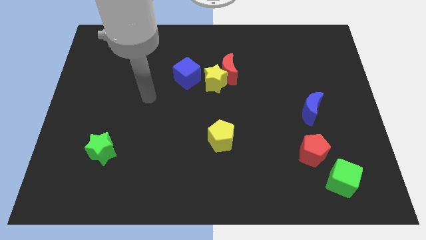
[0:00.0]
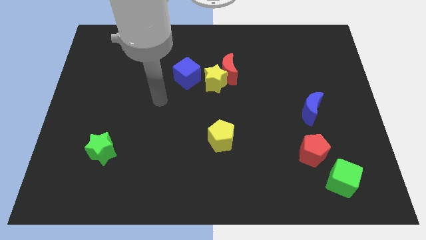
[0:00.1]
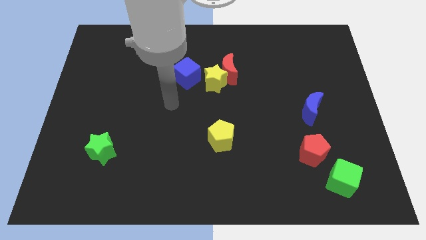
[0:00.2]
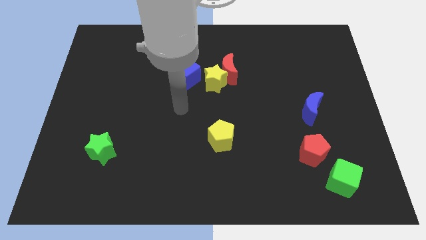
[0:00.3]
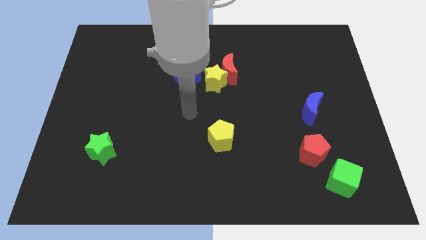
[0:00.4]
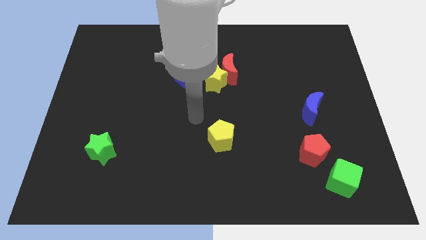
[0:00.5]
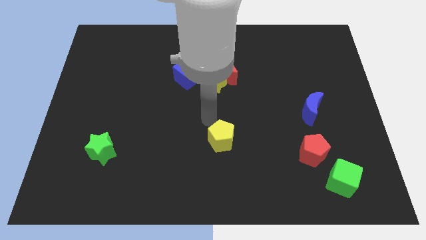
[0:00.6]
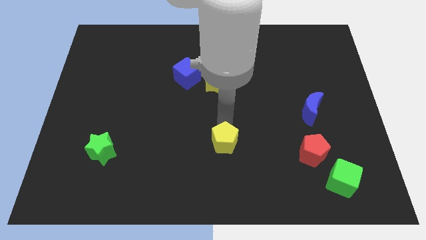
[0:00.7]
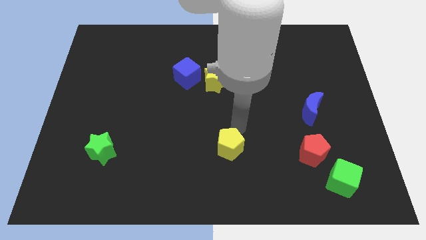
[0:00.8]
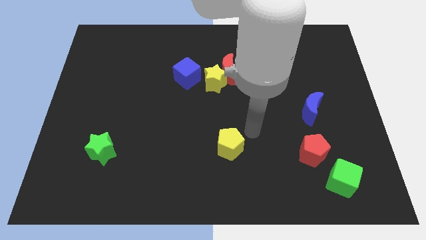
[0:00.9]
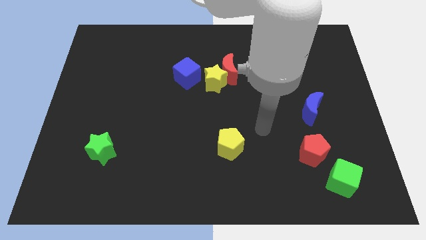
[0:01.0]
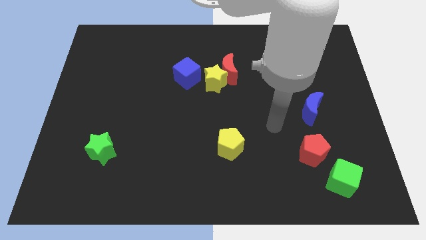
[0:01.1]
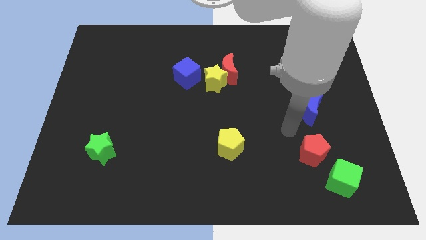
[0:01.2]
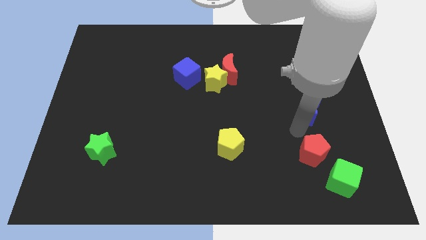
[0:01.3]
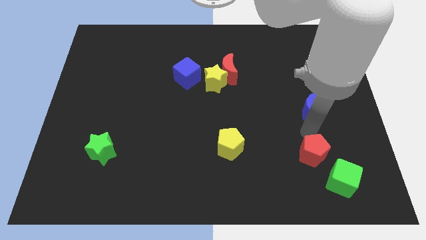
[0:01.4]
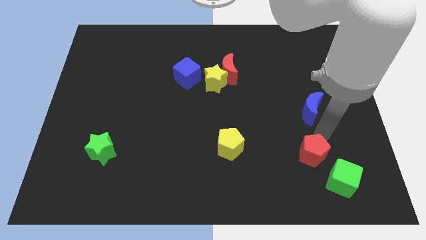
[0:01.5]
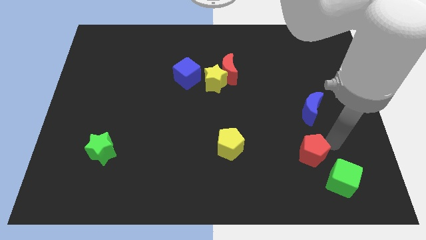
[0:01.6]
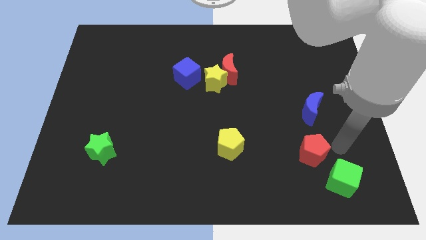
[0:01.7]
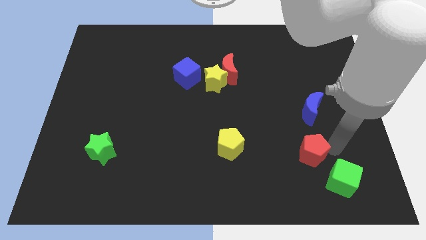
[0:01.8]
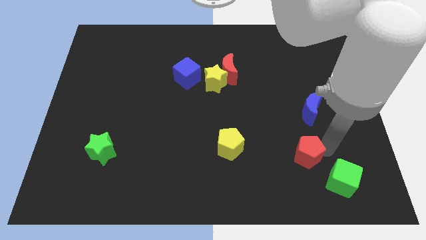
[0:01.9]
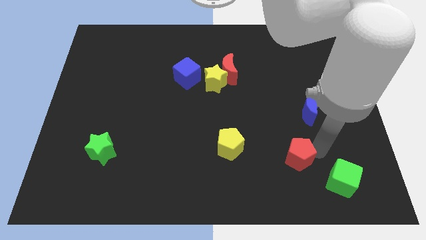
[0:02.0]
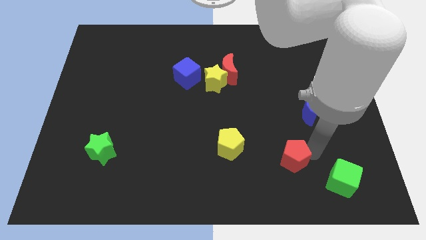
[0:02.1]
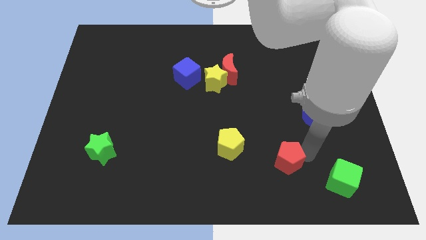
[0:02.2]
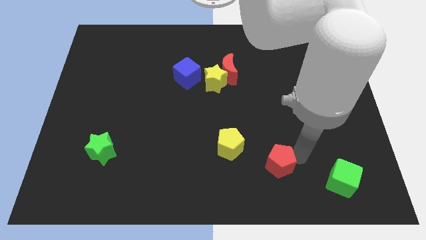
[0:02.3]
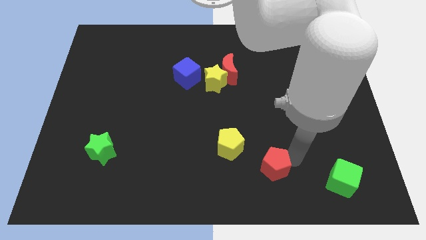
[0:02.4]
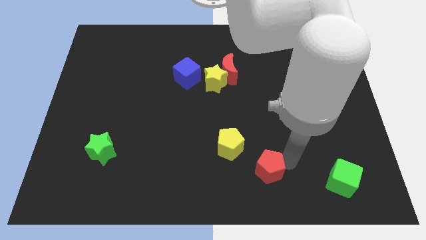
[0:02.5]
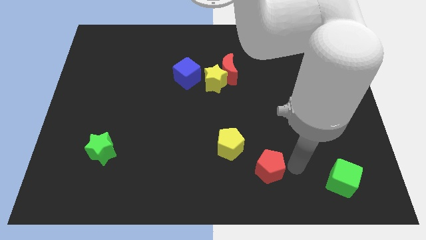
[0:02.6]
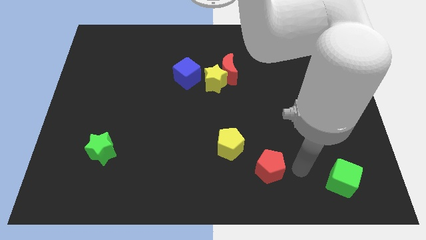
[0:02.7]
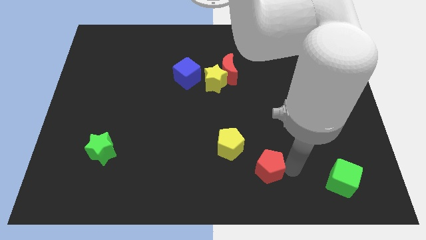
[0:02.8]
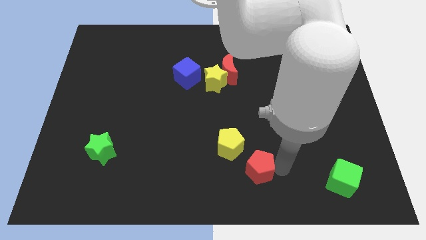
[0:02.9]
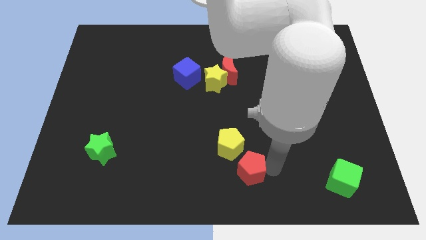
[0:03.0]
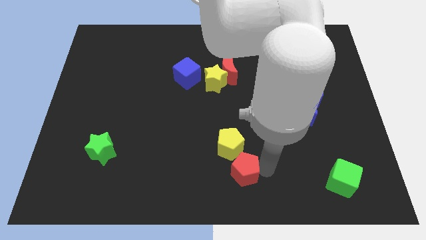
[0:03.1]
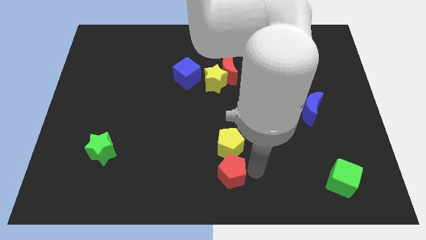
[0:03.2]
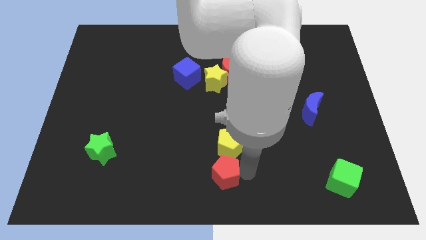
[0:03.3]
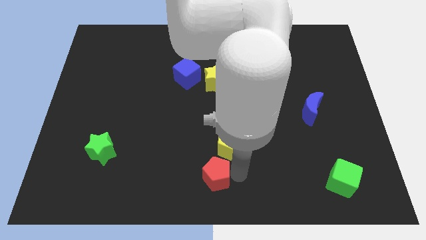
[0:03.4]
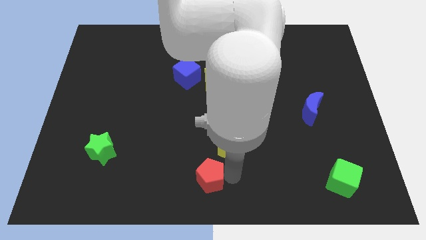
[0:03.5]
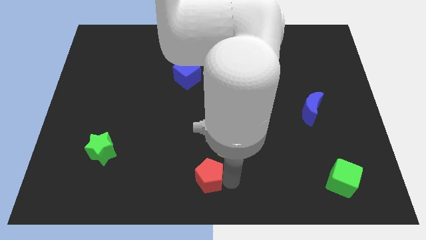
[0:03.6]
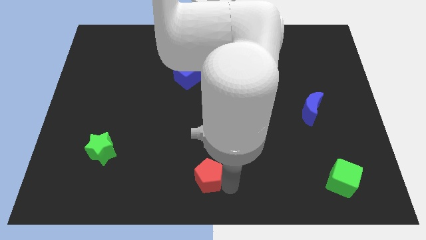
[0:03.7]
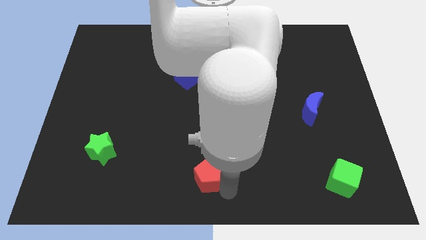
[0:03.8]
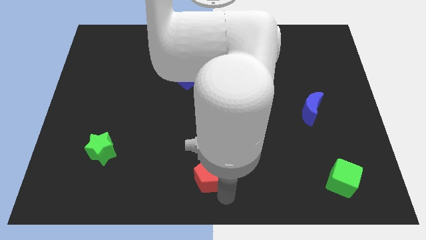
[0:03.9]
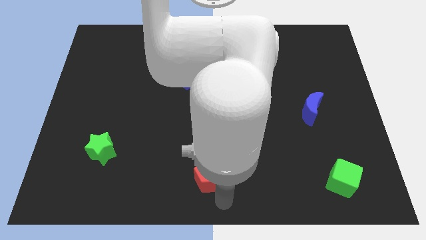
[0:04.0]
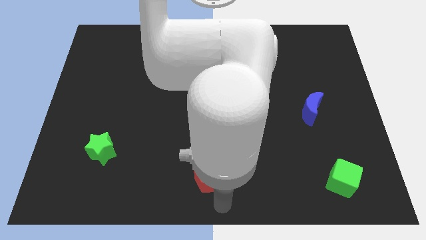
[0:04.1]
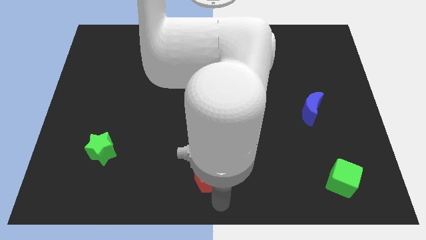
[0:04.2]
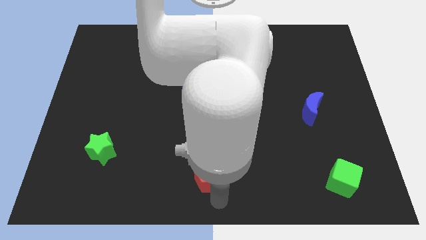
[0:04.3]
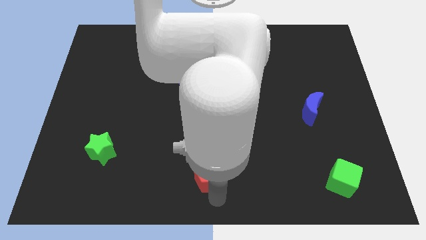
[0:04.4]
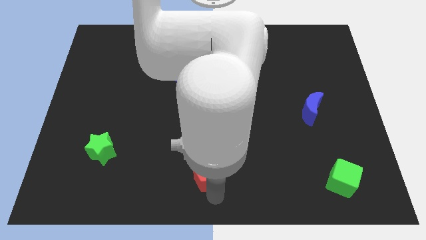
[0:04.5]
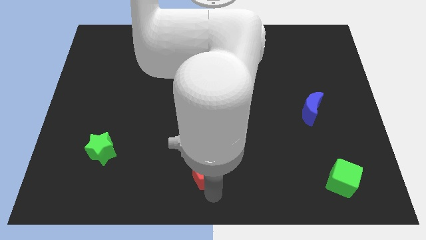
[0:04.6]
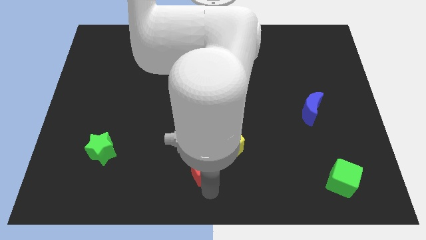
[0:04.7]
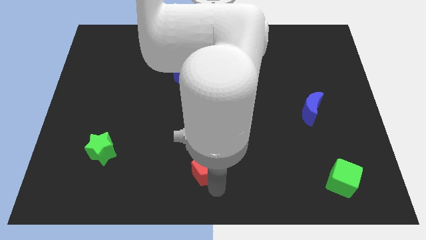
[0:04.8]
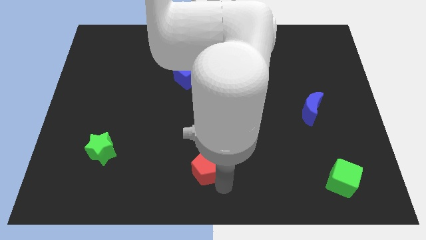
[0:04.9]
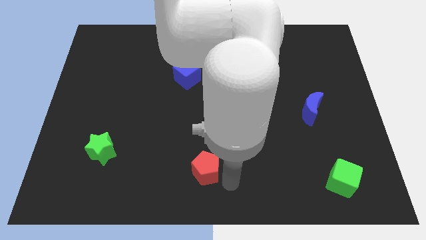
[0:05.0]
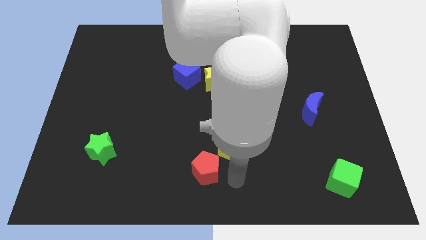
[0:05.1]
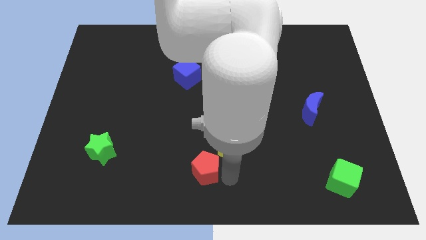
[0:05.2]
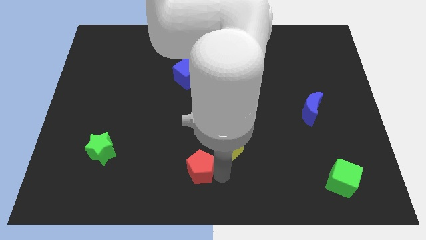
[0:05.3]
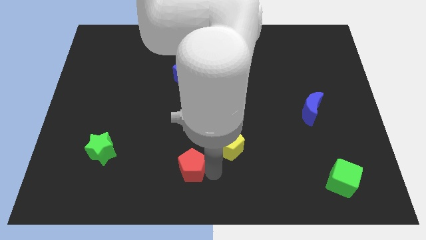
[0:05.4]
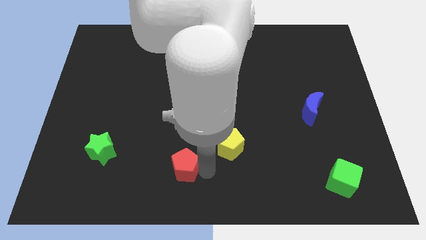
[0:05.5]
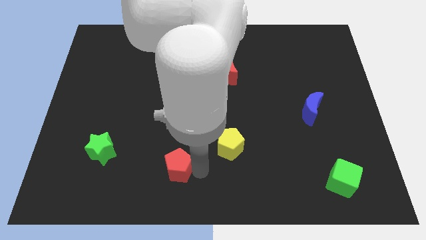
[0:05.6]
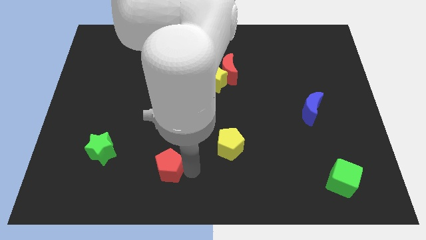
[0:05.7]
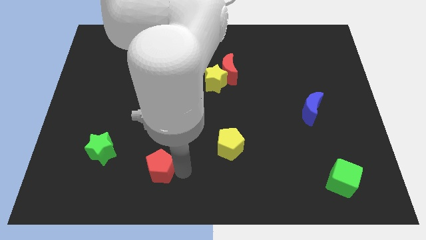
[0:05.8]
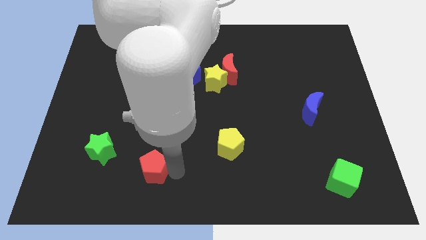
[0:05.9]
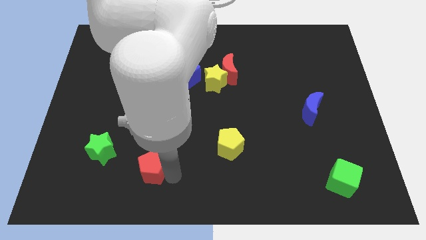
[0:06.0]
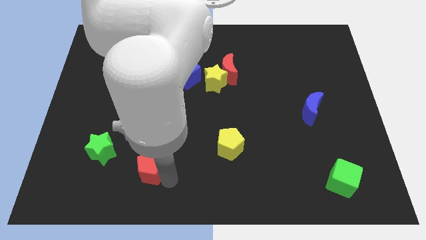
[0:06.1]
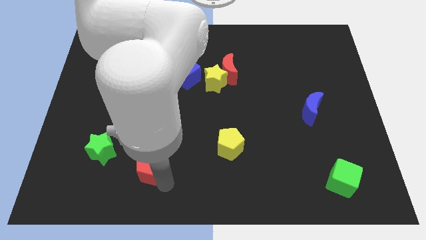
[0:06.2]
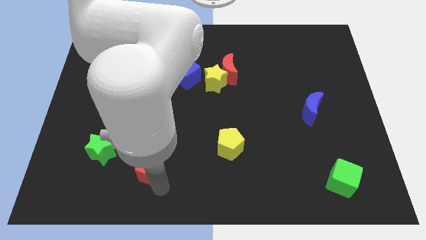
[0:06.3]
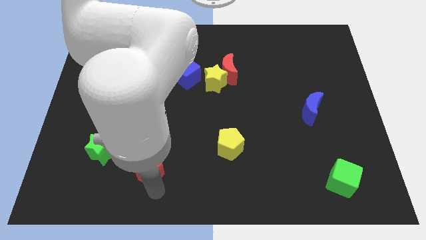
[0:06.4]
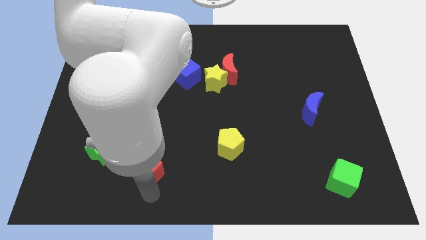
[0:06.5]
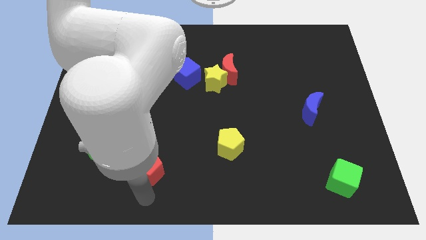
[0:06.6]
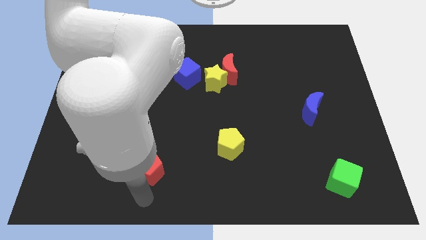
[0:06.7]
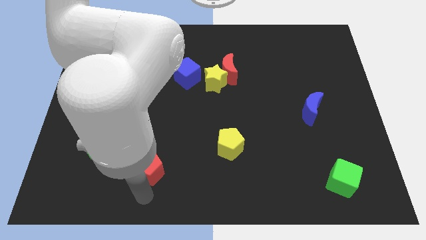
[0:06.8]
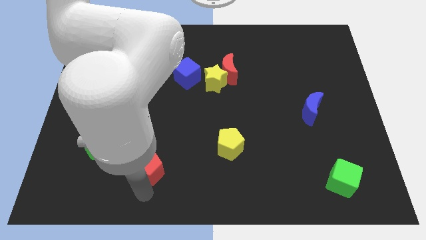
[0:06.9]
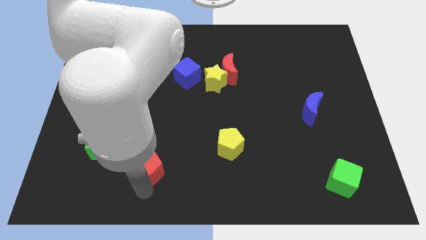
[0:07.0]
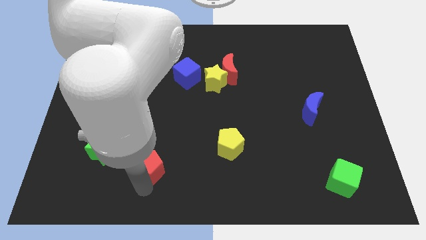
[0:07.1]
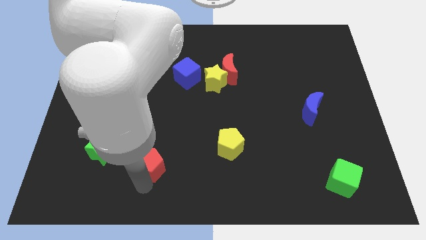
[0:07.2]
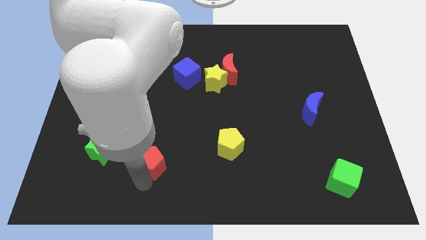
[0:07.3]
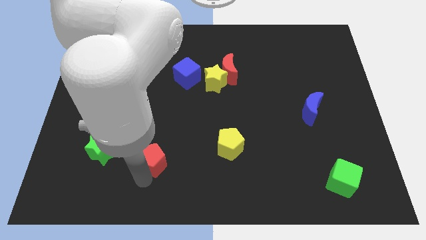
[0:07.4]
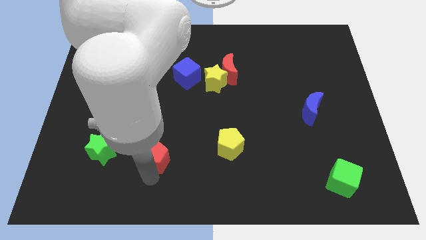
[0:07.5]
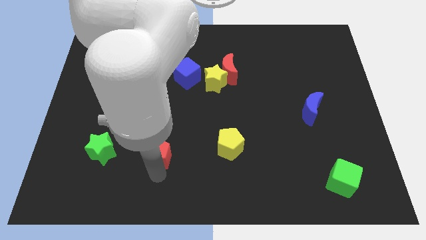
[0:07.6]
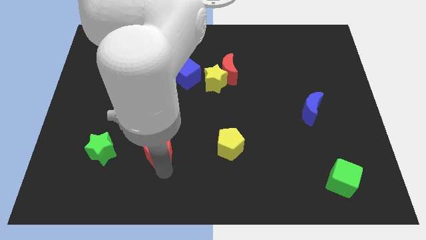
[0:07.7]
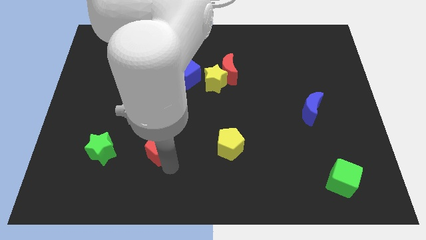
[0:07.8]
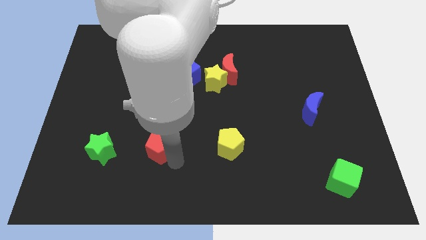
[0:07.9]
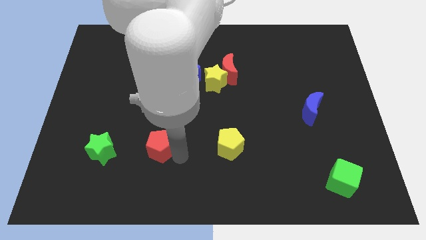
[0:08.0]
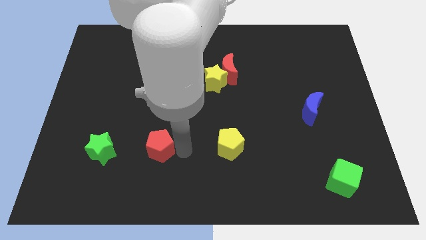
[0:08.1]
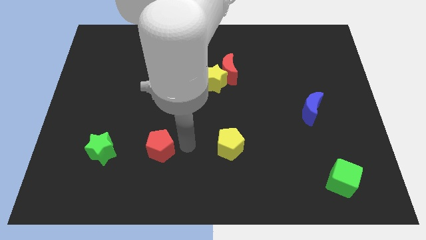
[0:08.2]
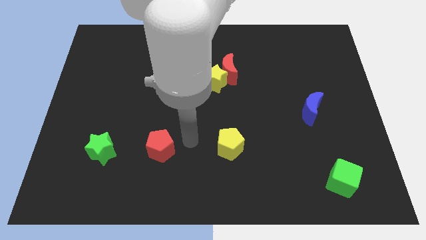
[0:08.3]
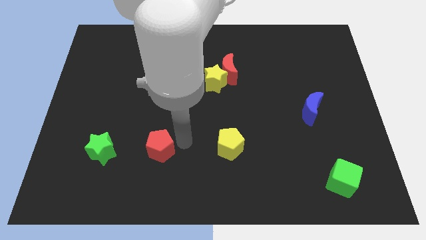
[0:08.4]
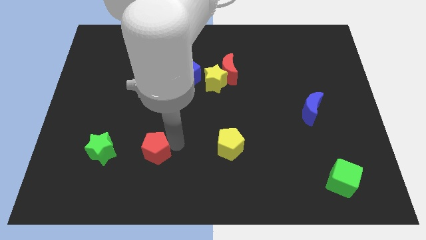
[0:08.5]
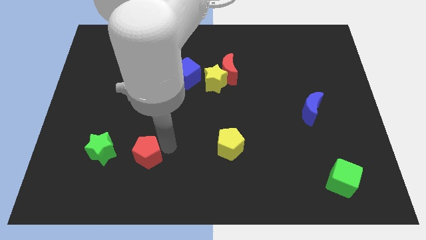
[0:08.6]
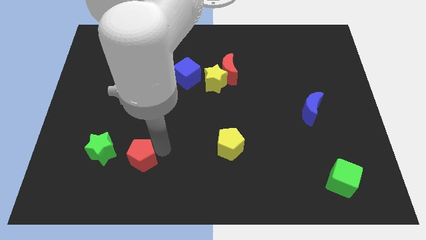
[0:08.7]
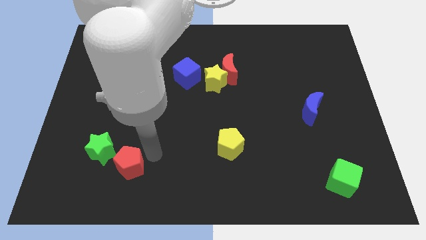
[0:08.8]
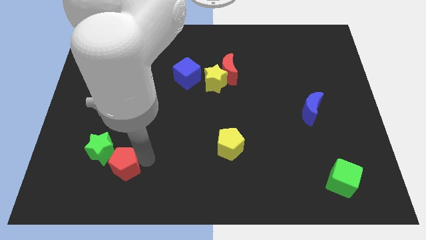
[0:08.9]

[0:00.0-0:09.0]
slide the red pentagon to the green star
